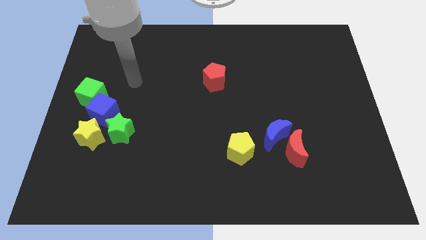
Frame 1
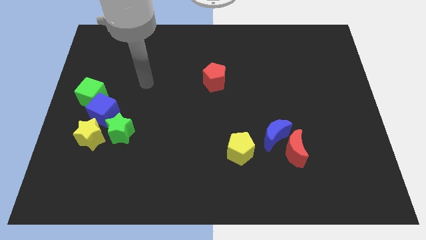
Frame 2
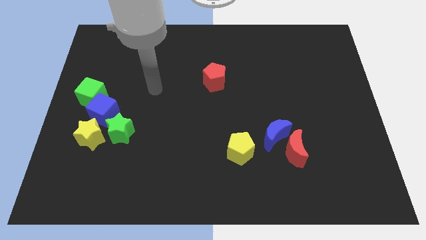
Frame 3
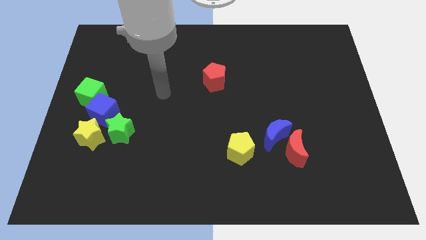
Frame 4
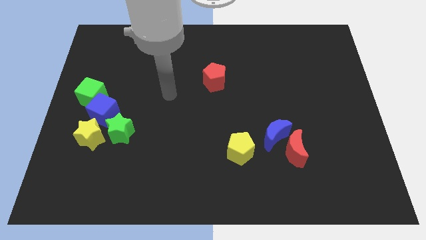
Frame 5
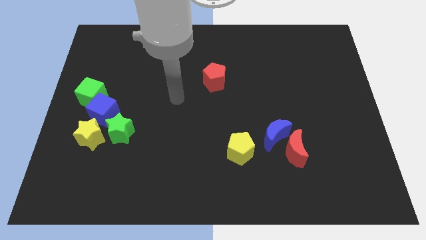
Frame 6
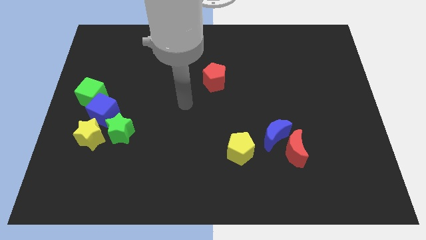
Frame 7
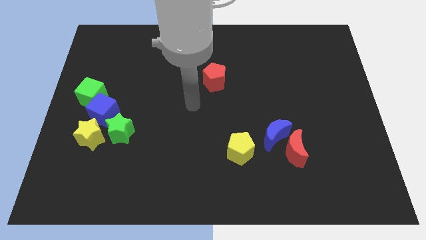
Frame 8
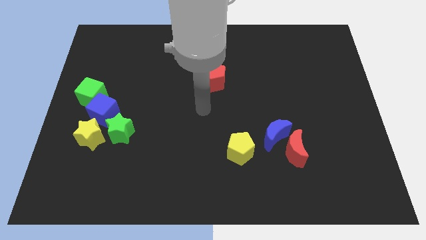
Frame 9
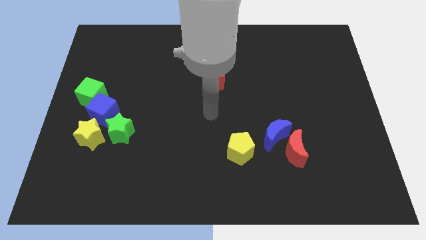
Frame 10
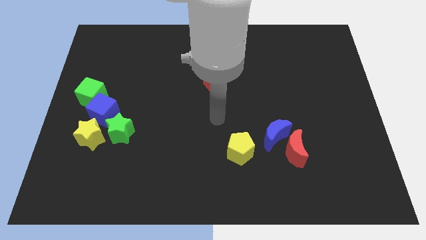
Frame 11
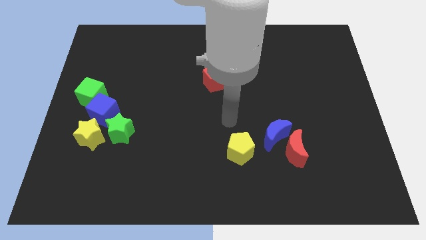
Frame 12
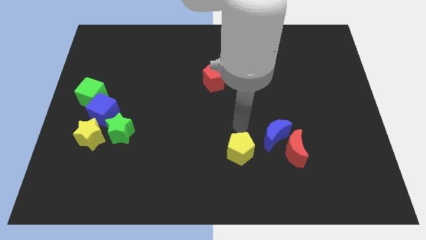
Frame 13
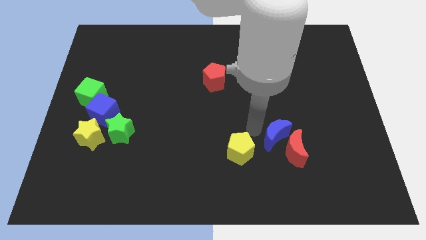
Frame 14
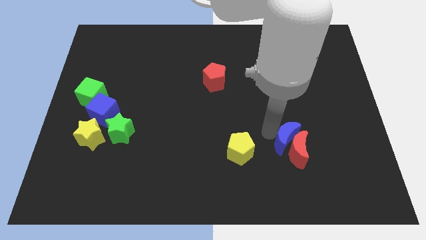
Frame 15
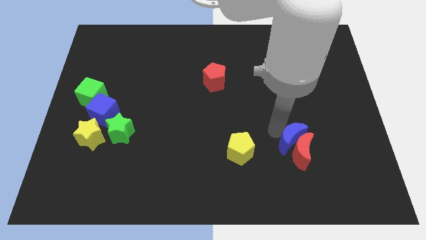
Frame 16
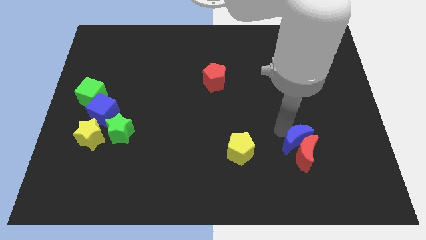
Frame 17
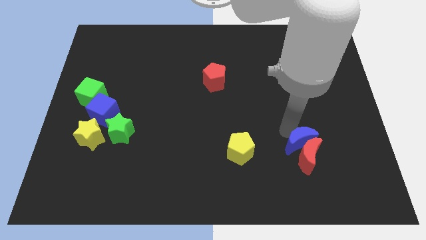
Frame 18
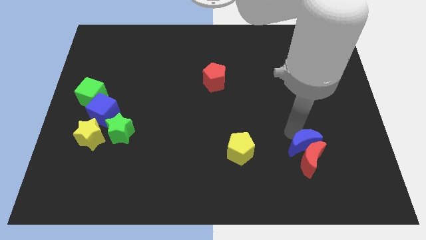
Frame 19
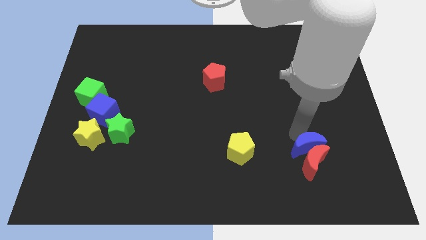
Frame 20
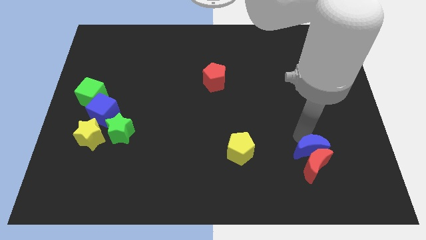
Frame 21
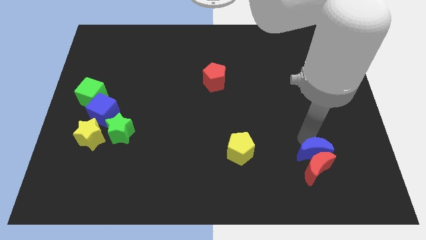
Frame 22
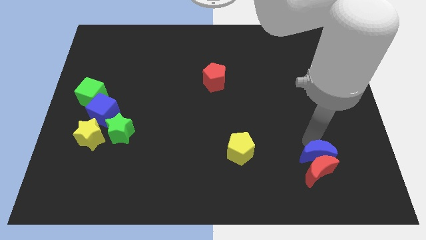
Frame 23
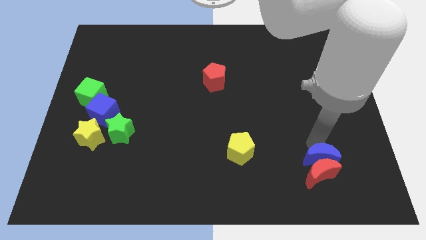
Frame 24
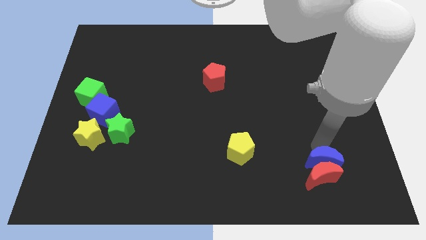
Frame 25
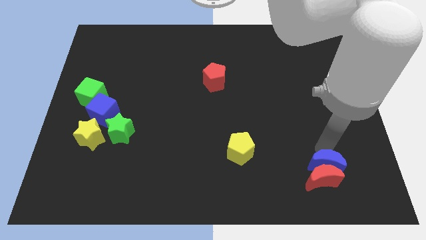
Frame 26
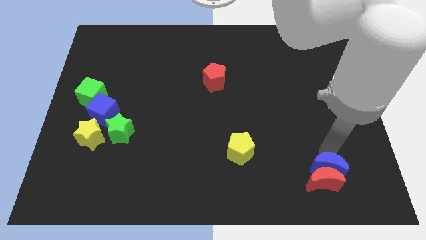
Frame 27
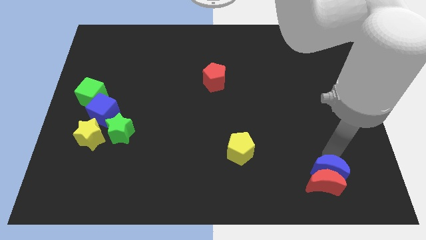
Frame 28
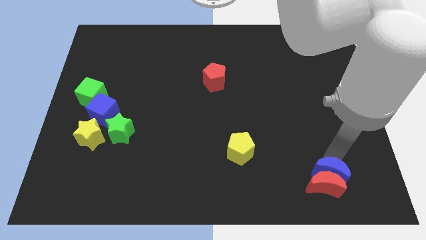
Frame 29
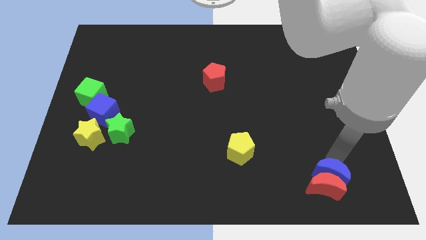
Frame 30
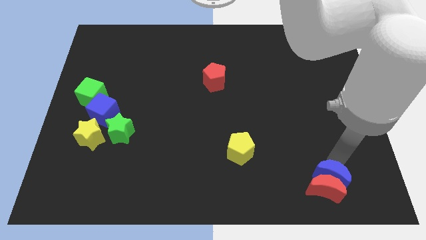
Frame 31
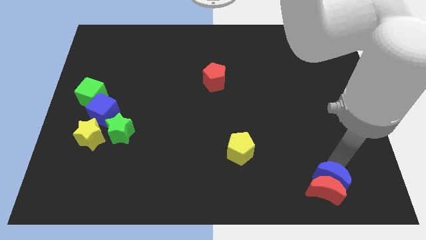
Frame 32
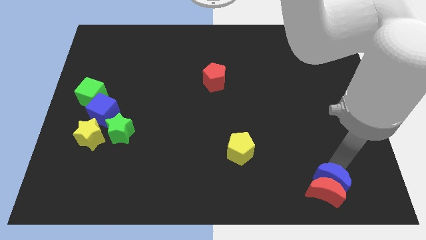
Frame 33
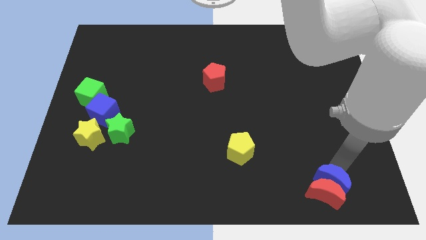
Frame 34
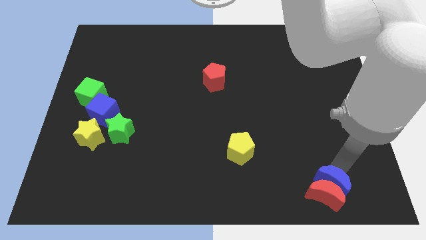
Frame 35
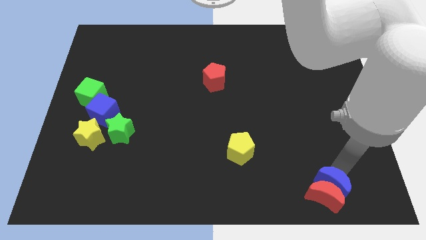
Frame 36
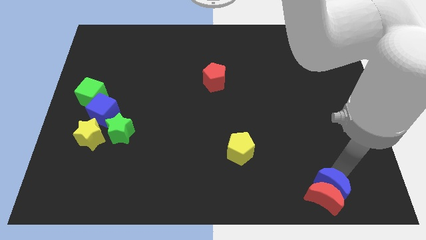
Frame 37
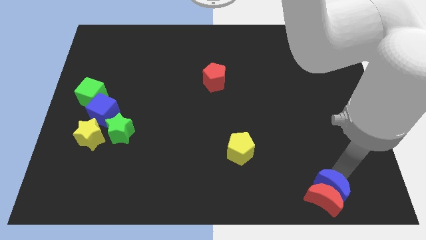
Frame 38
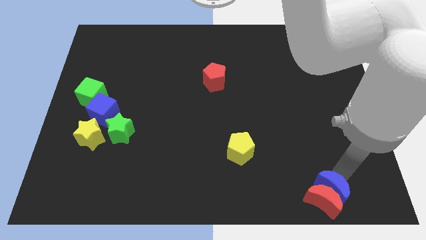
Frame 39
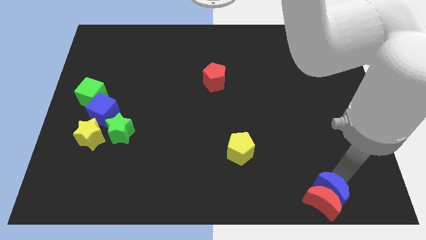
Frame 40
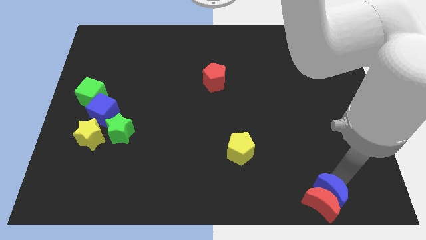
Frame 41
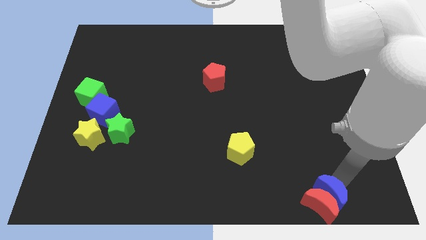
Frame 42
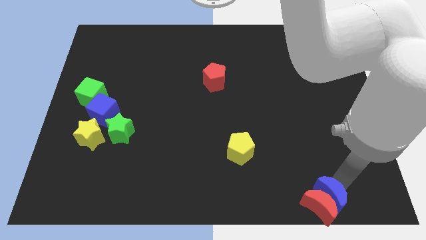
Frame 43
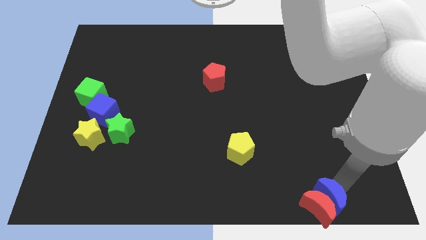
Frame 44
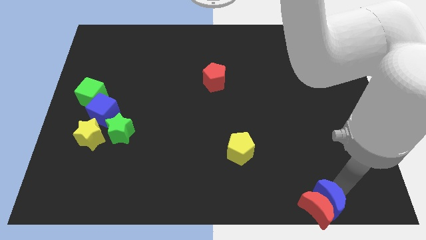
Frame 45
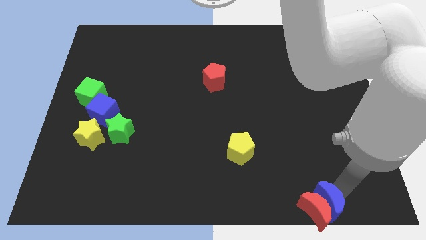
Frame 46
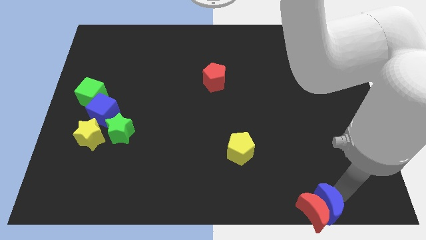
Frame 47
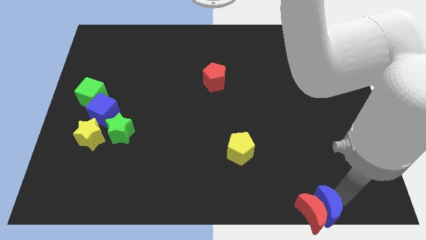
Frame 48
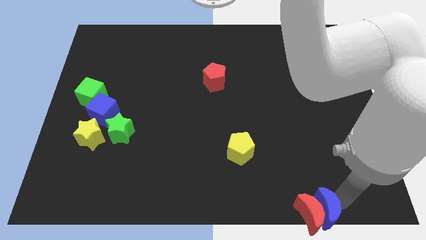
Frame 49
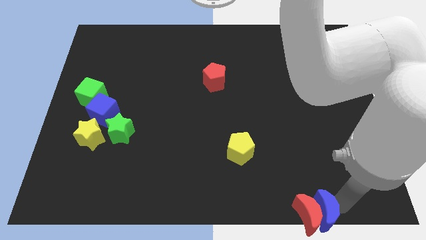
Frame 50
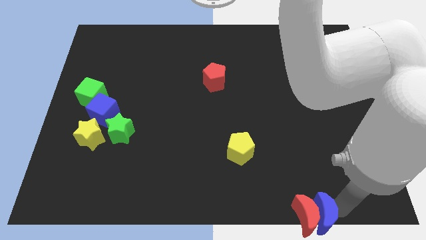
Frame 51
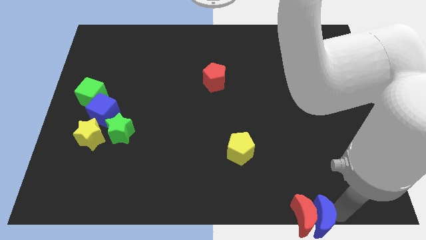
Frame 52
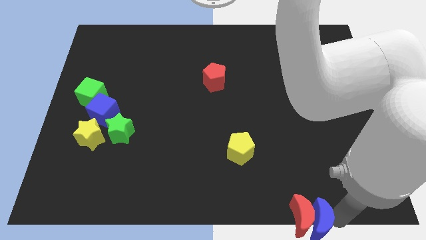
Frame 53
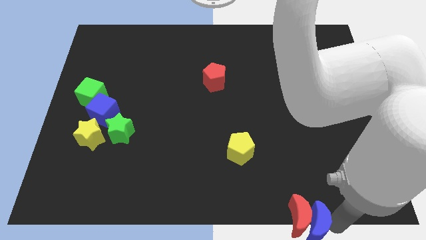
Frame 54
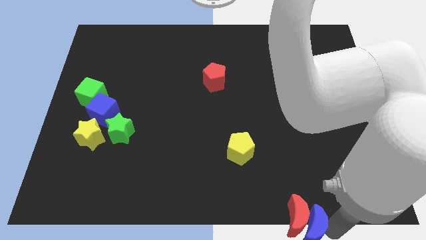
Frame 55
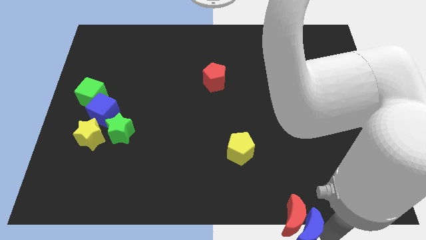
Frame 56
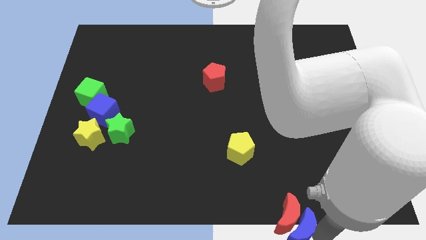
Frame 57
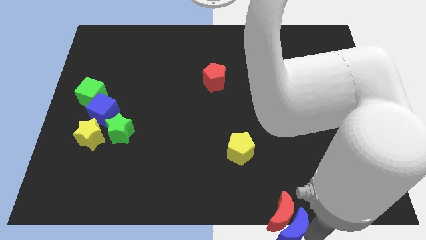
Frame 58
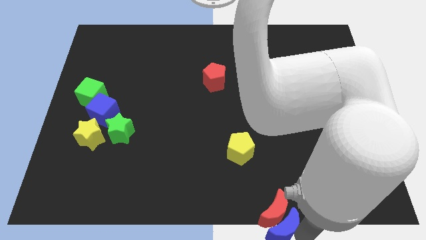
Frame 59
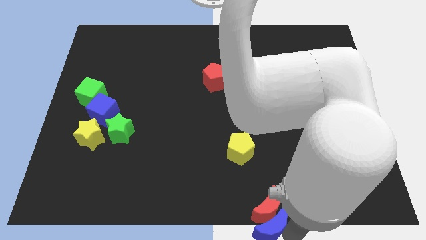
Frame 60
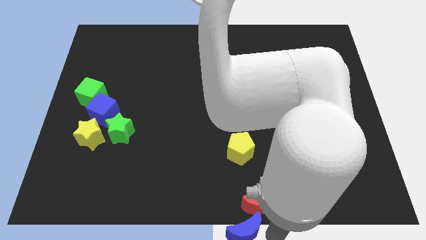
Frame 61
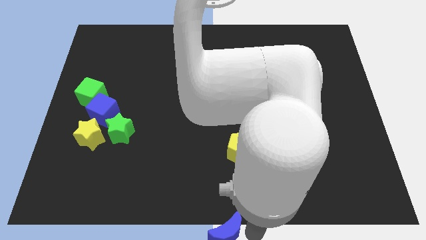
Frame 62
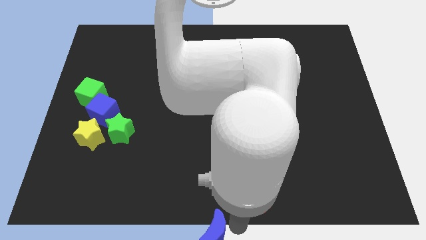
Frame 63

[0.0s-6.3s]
move the red moon away from the blue moon

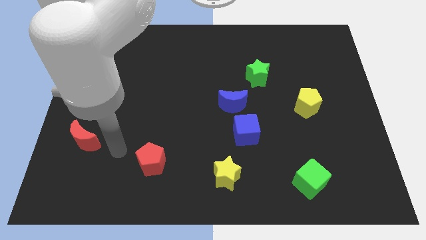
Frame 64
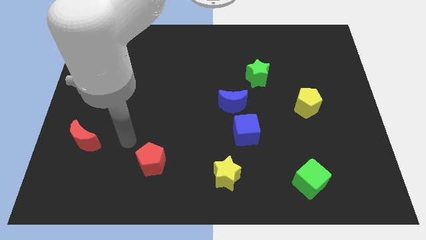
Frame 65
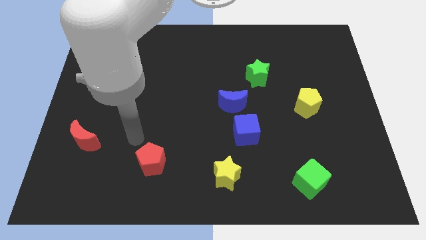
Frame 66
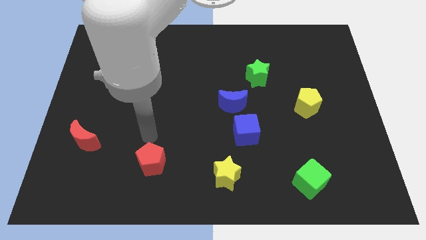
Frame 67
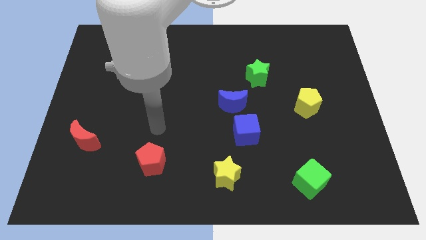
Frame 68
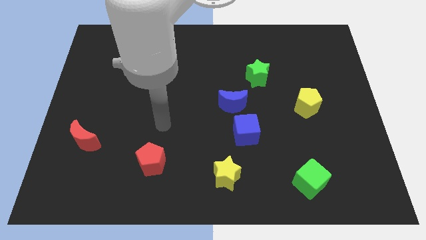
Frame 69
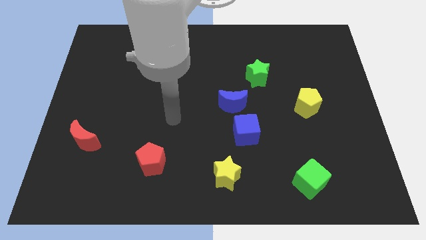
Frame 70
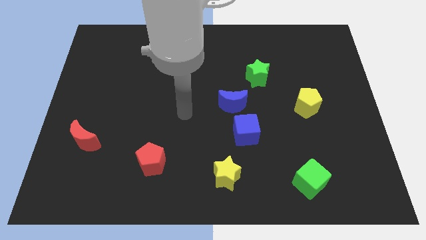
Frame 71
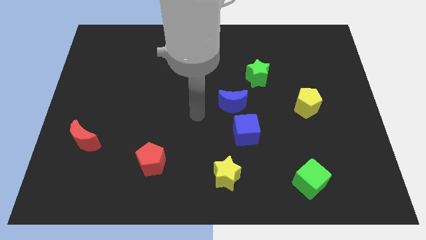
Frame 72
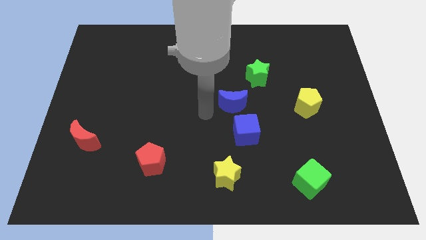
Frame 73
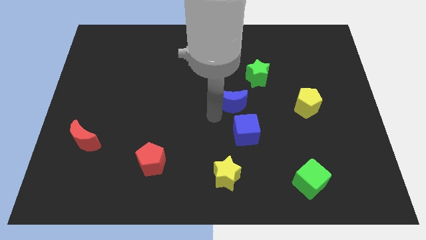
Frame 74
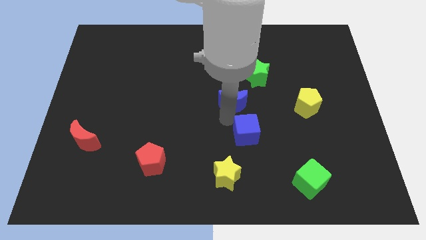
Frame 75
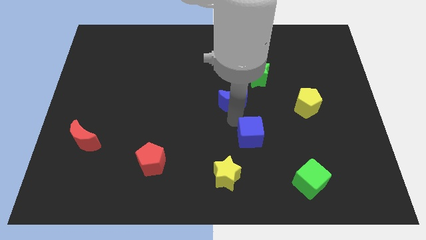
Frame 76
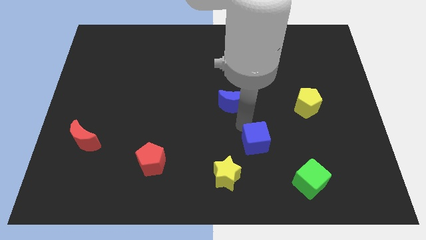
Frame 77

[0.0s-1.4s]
separate the blue moon from the blue cube

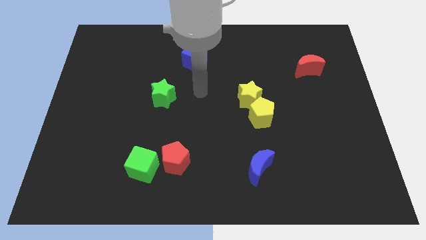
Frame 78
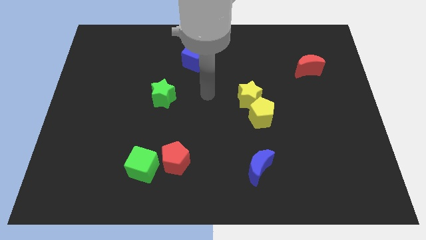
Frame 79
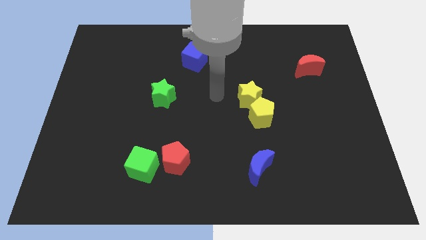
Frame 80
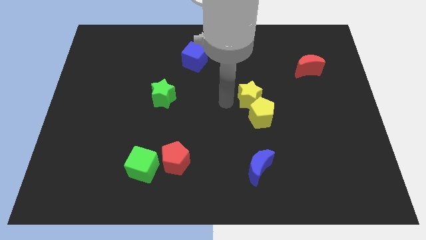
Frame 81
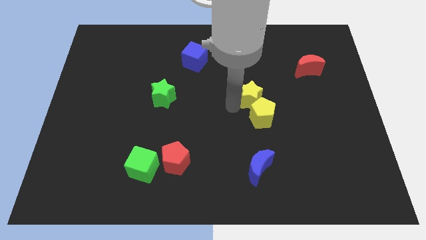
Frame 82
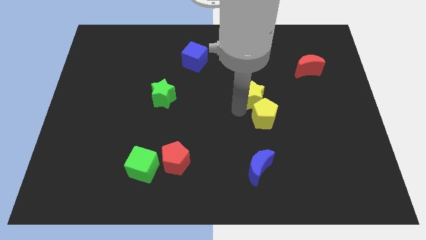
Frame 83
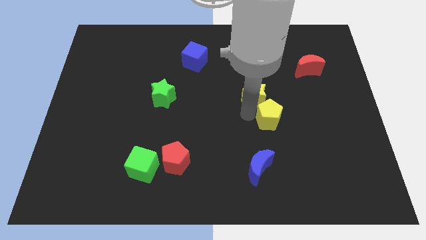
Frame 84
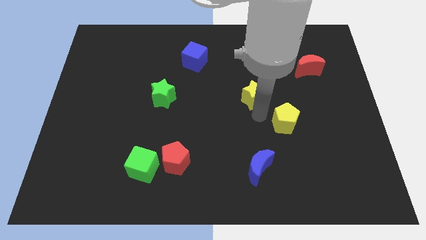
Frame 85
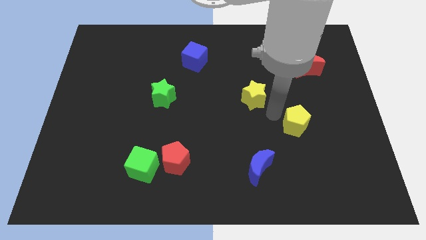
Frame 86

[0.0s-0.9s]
pull the yellow star apart from the yellow pentagon

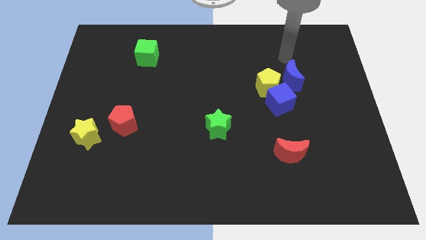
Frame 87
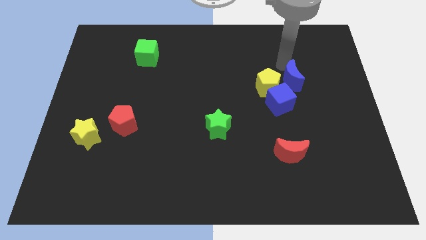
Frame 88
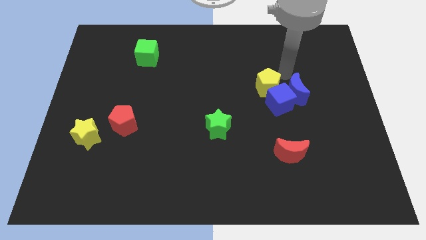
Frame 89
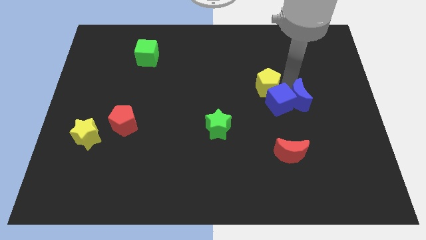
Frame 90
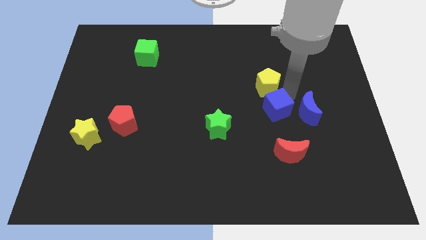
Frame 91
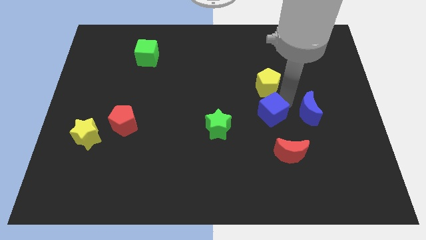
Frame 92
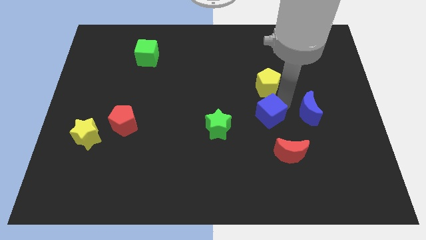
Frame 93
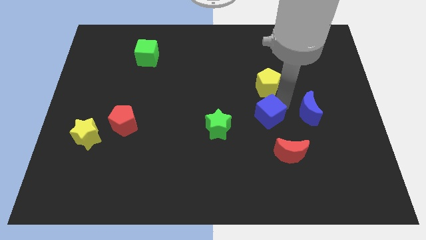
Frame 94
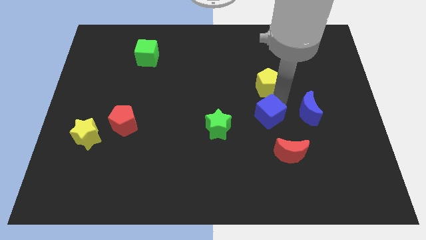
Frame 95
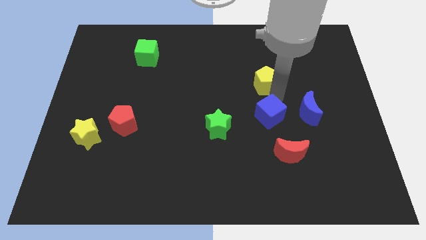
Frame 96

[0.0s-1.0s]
separate the yellow pentagon from the blue cube and blue moon
